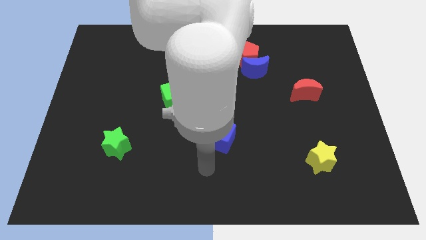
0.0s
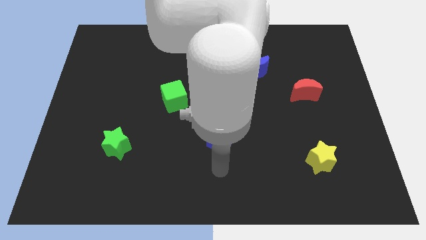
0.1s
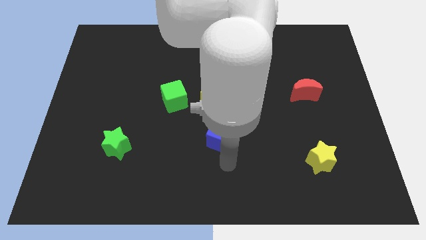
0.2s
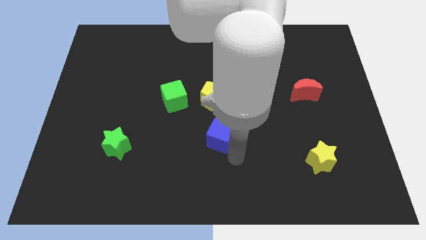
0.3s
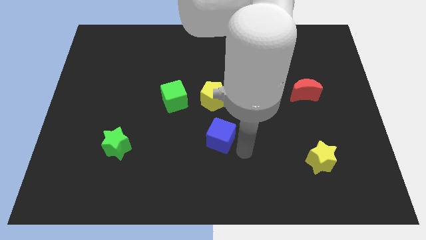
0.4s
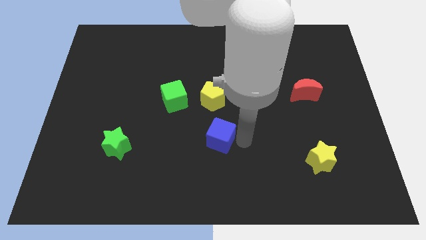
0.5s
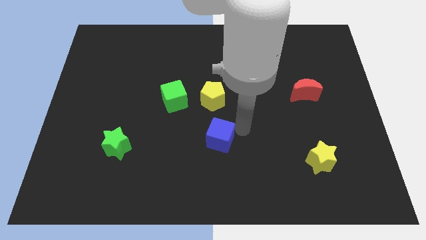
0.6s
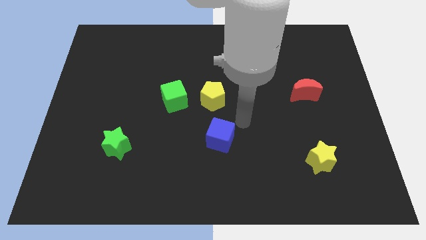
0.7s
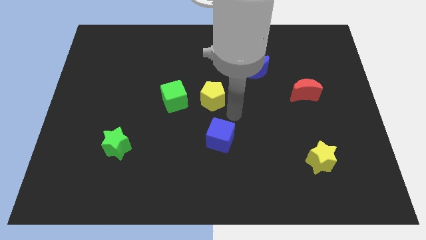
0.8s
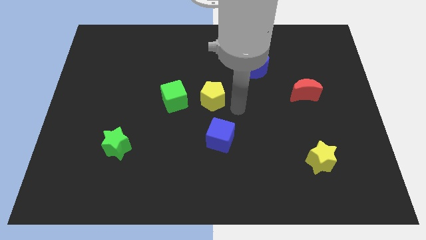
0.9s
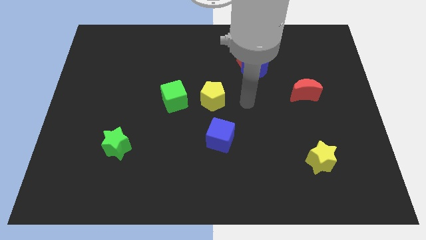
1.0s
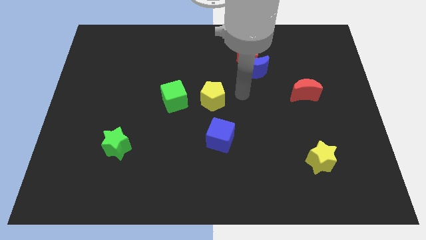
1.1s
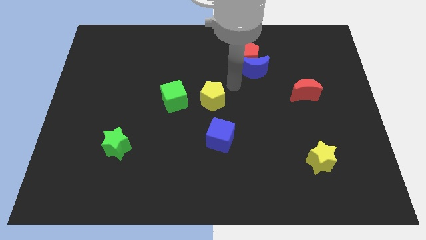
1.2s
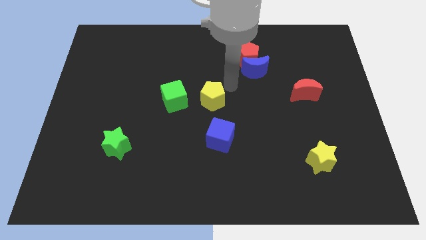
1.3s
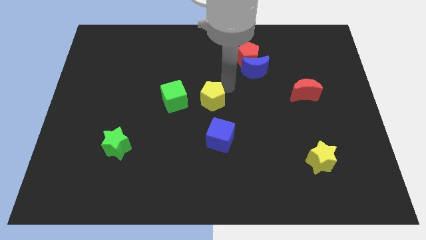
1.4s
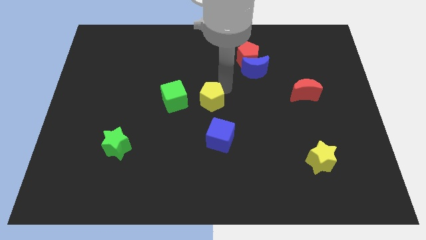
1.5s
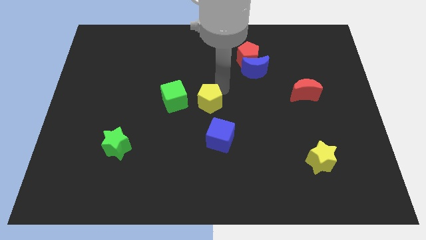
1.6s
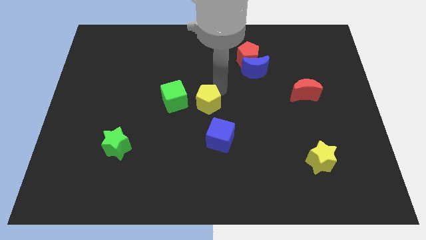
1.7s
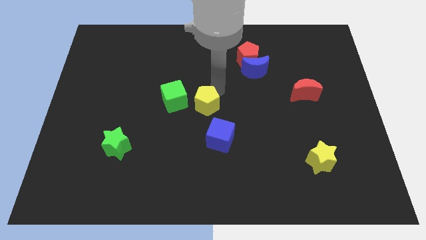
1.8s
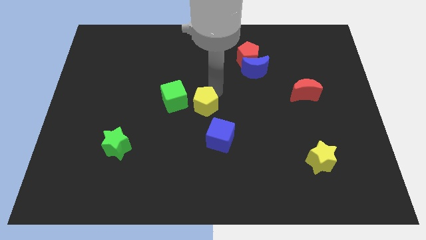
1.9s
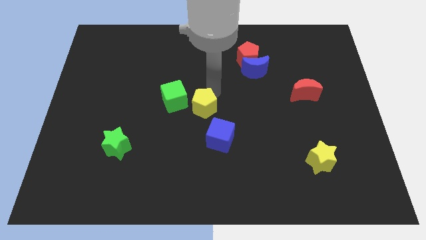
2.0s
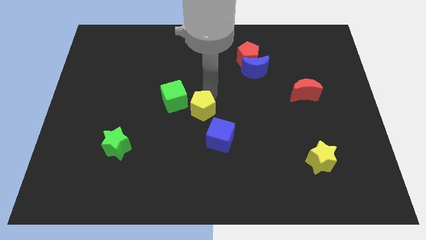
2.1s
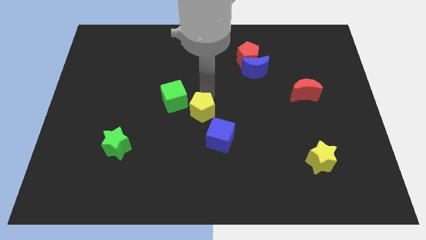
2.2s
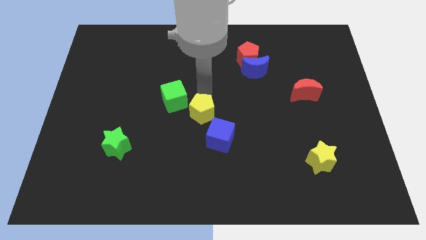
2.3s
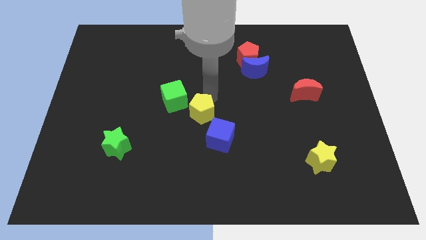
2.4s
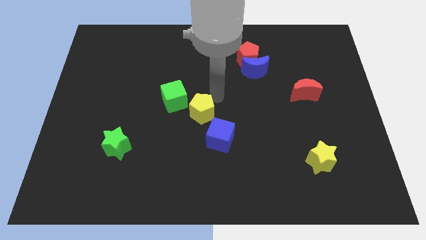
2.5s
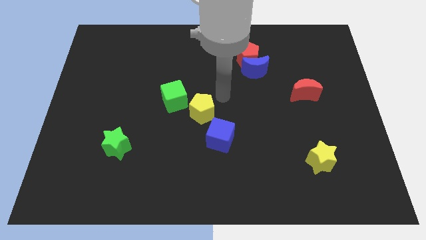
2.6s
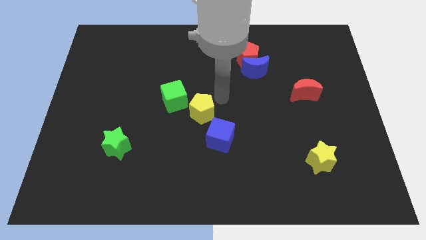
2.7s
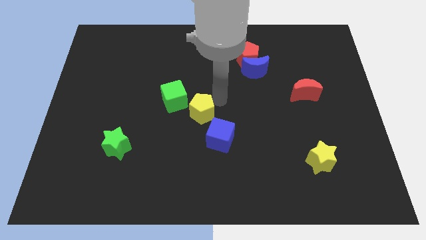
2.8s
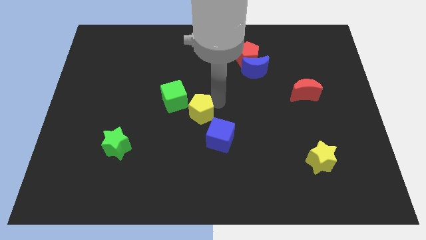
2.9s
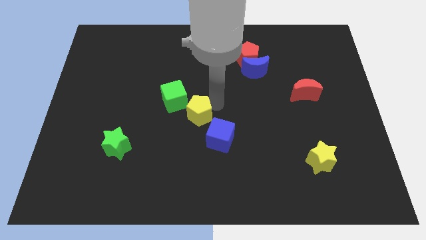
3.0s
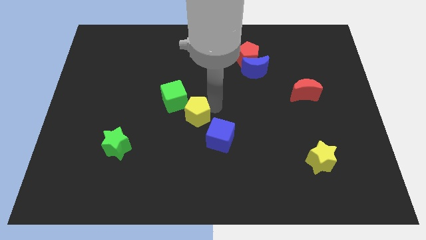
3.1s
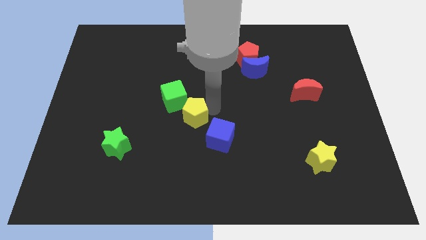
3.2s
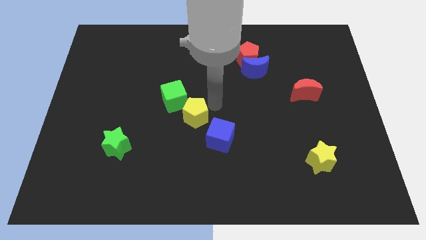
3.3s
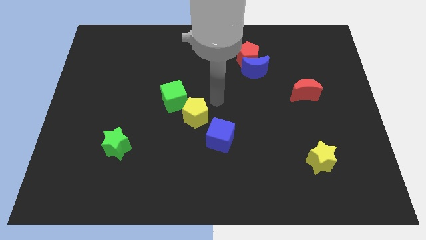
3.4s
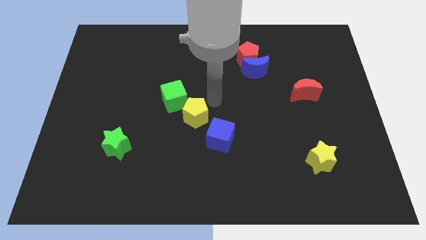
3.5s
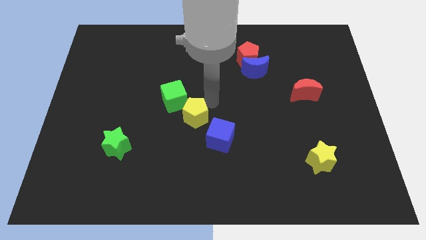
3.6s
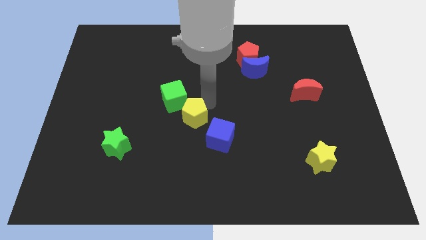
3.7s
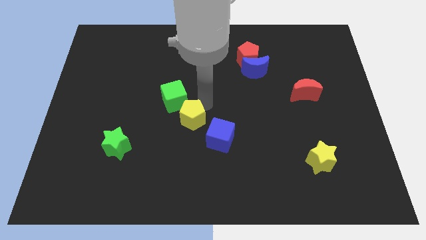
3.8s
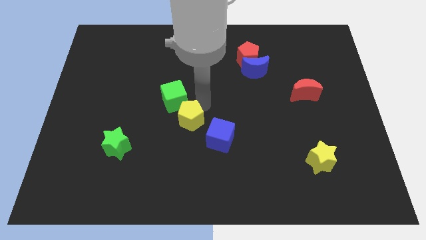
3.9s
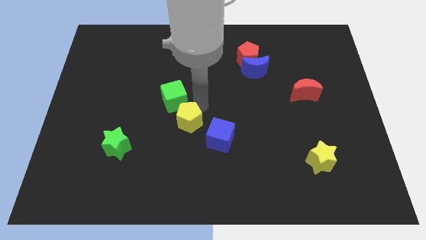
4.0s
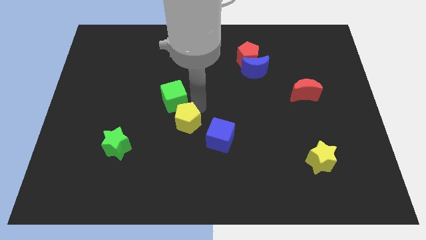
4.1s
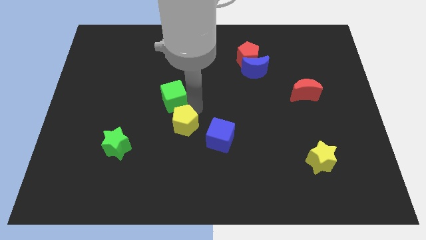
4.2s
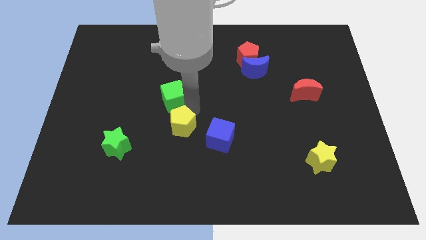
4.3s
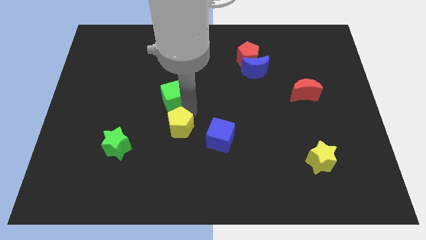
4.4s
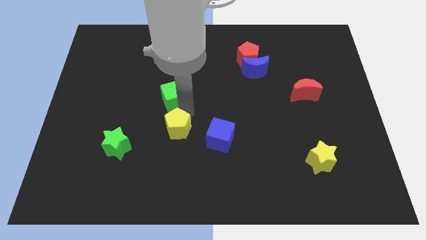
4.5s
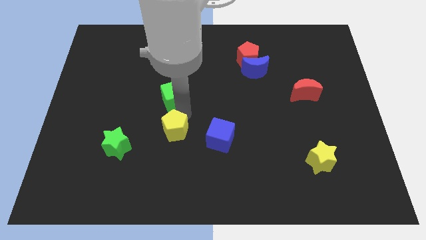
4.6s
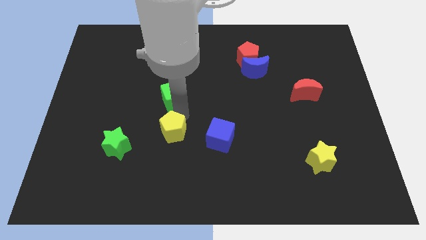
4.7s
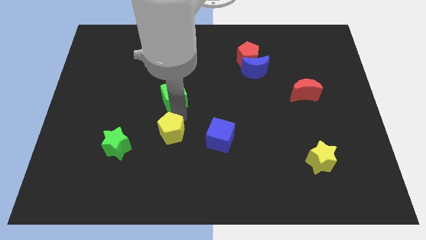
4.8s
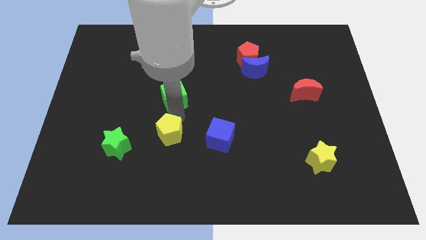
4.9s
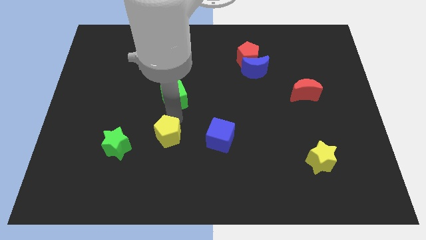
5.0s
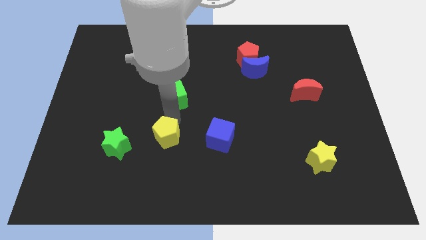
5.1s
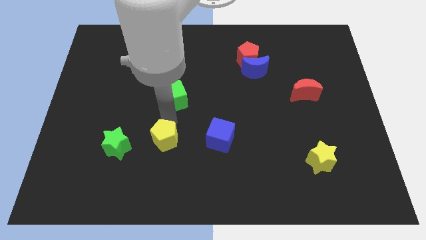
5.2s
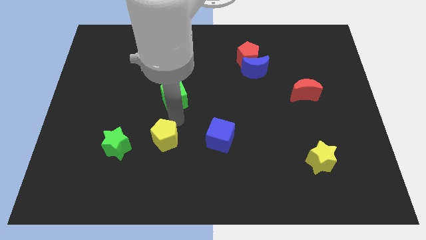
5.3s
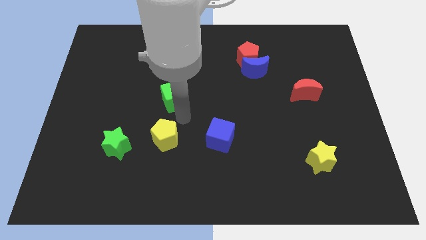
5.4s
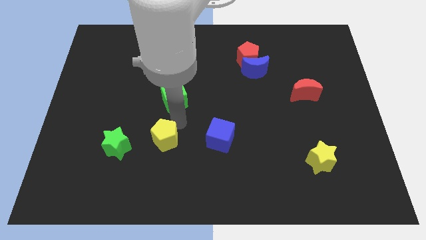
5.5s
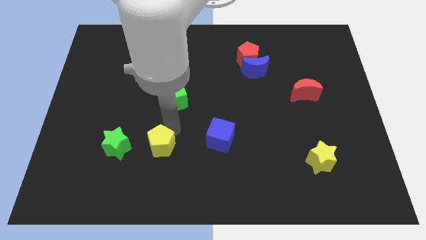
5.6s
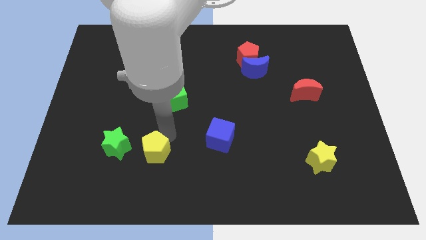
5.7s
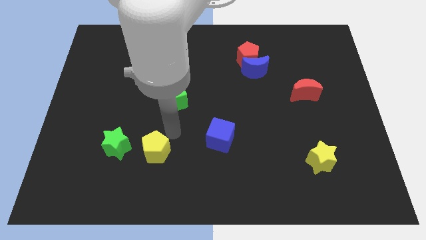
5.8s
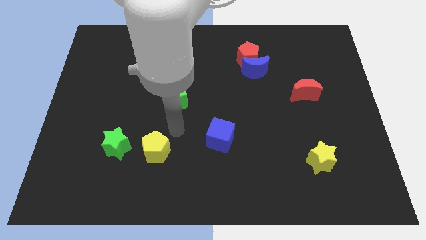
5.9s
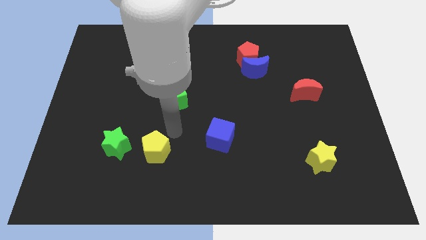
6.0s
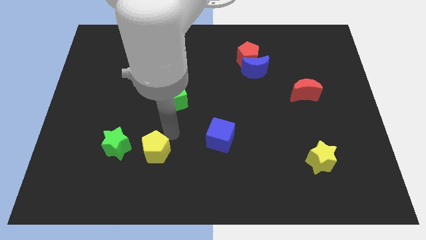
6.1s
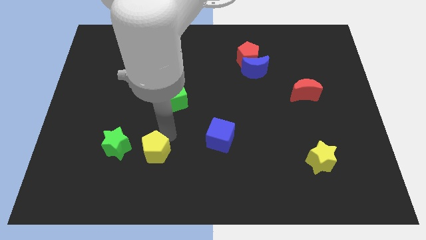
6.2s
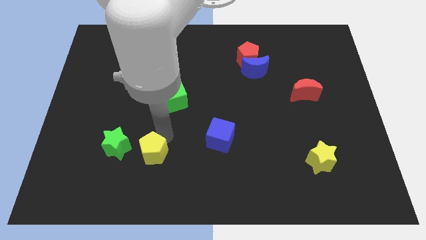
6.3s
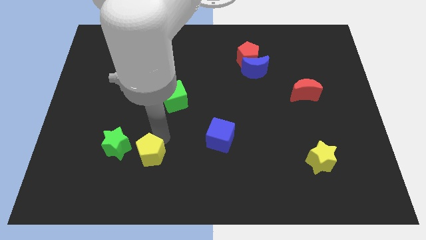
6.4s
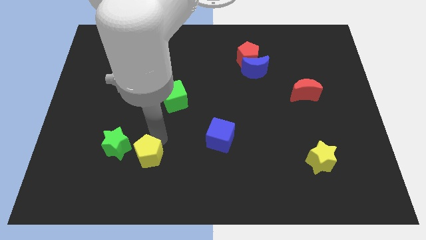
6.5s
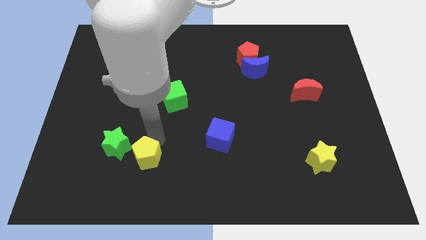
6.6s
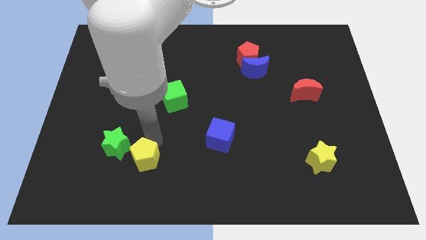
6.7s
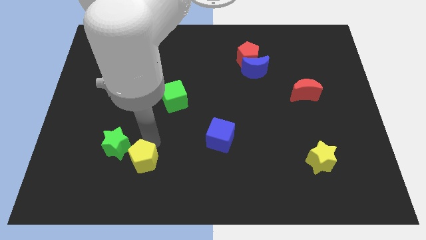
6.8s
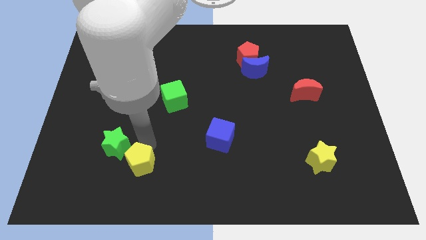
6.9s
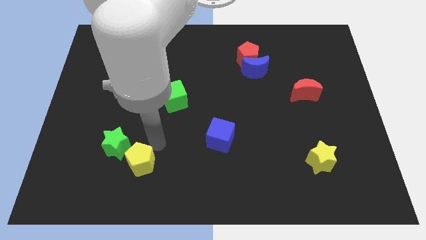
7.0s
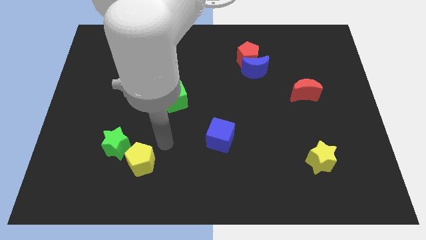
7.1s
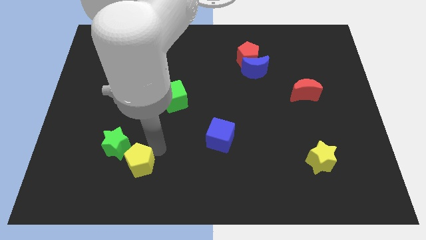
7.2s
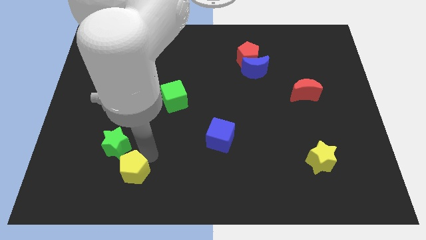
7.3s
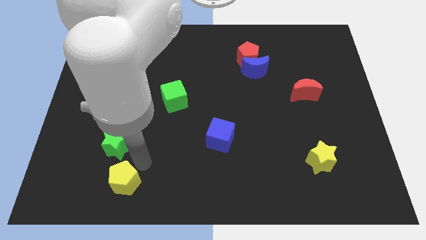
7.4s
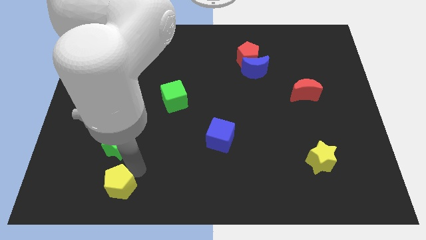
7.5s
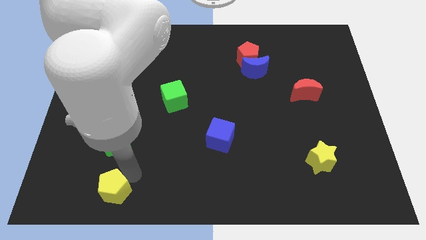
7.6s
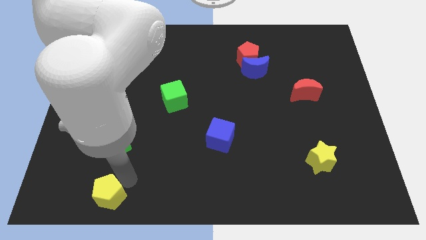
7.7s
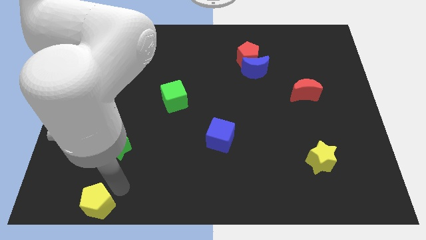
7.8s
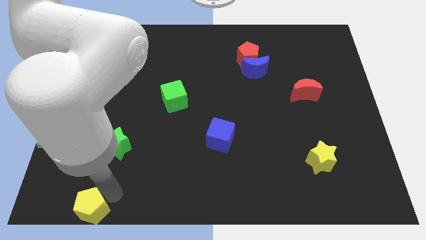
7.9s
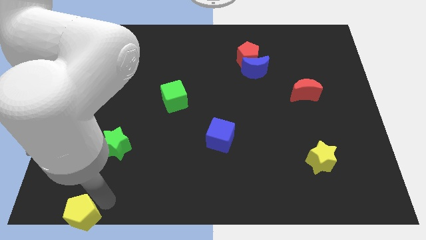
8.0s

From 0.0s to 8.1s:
move the yellow pentagon to the bottom left of the board
